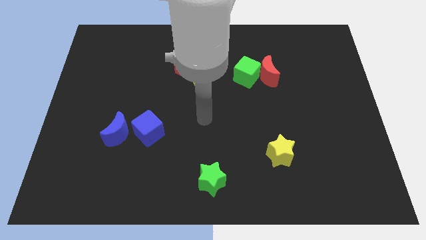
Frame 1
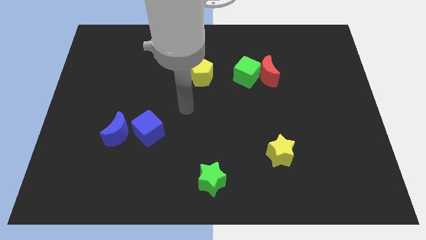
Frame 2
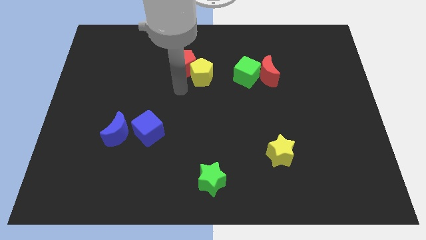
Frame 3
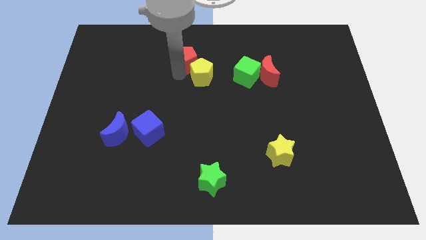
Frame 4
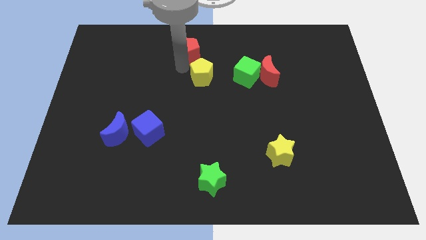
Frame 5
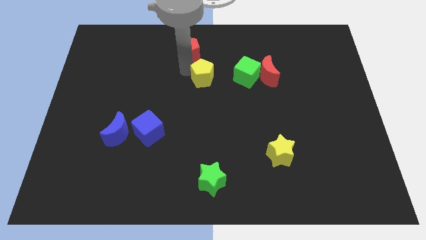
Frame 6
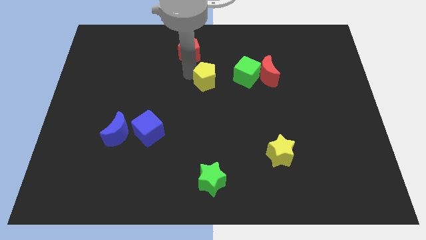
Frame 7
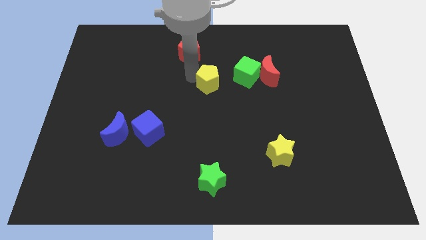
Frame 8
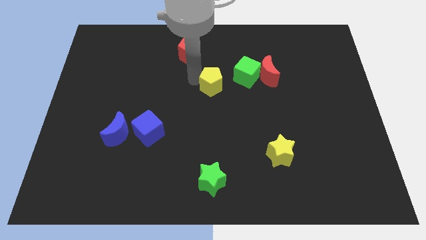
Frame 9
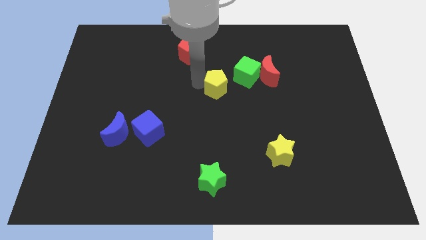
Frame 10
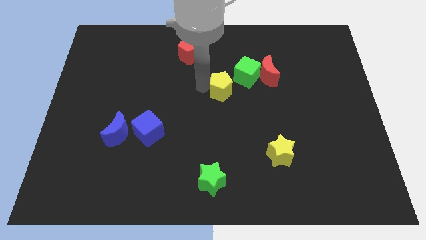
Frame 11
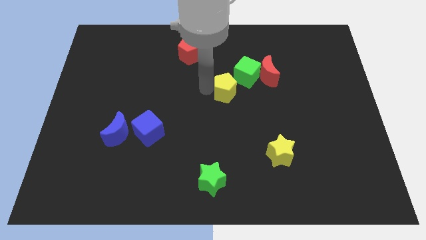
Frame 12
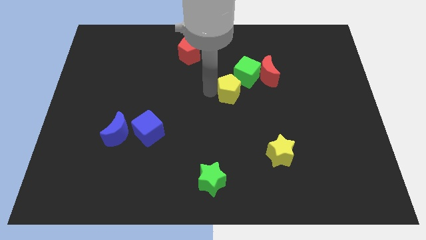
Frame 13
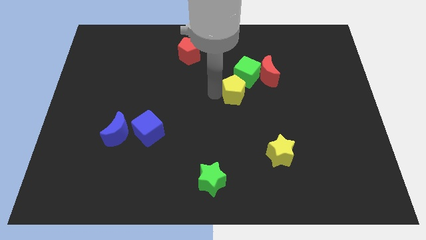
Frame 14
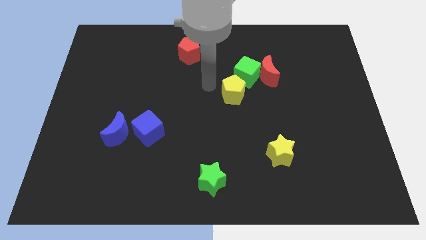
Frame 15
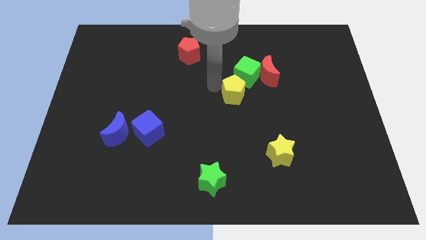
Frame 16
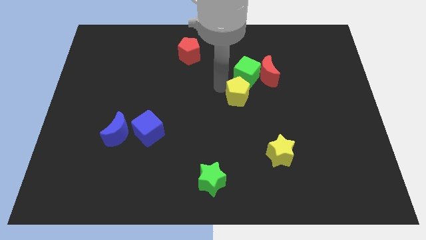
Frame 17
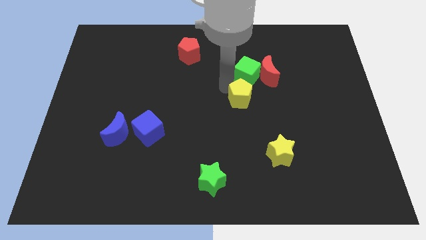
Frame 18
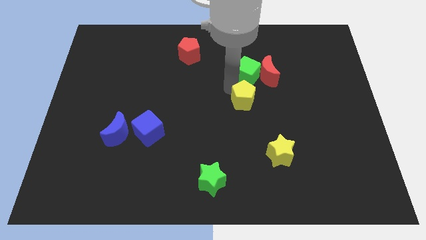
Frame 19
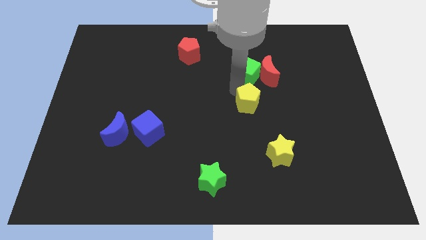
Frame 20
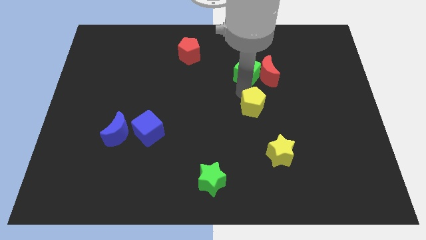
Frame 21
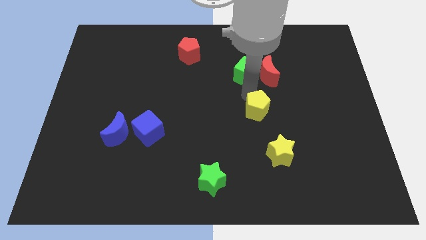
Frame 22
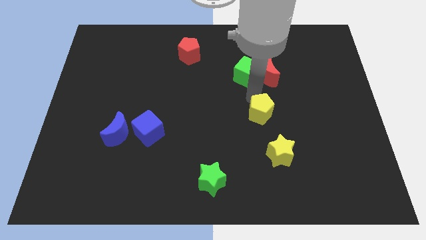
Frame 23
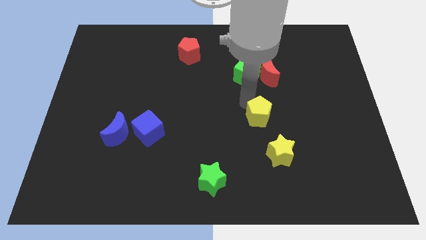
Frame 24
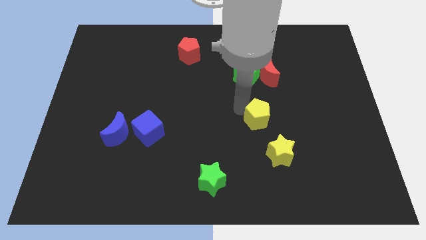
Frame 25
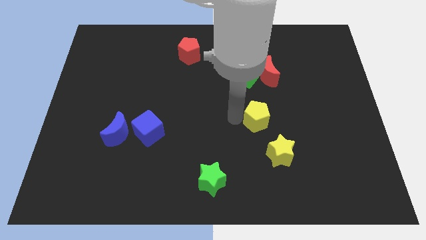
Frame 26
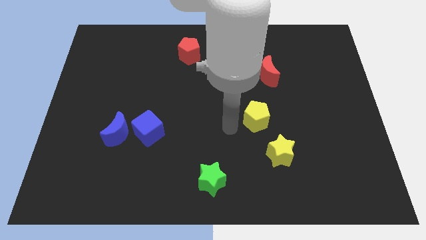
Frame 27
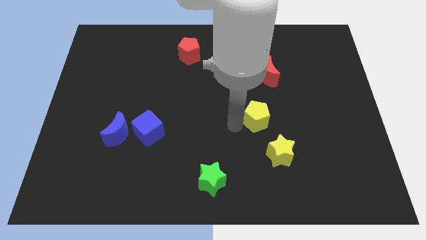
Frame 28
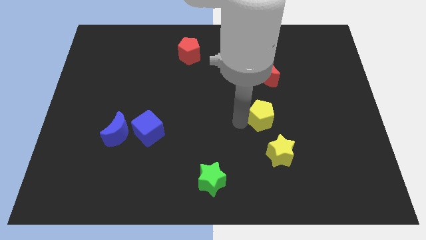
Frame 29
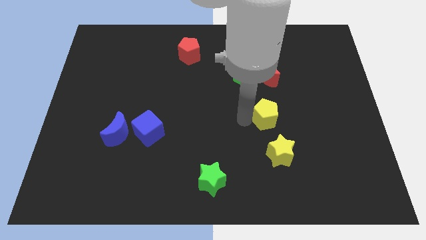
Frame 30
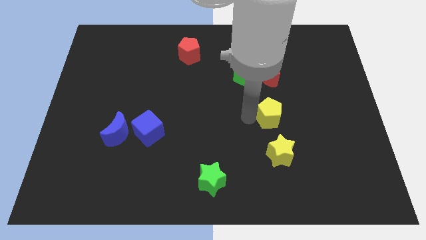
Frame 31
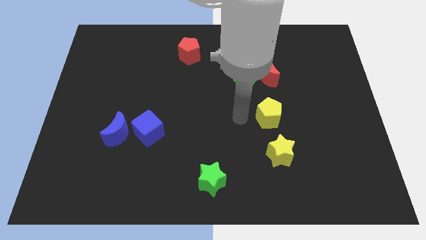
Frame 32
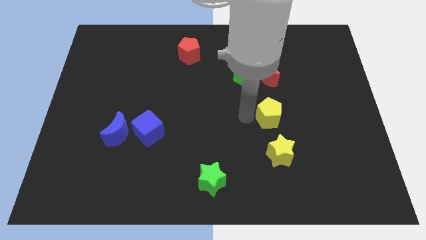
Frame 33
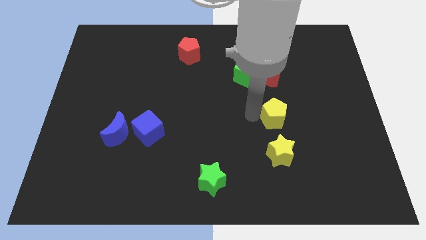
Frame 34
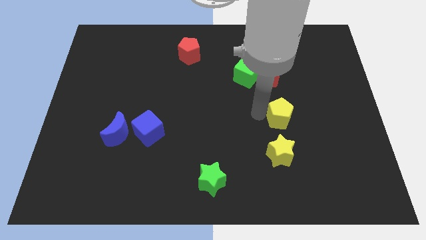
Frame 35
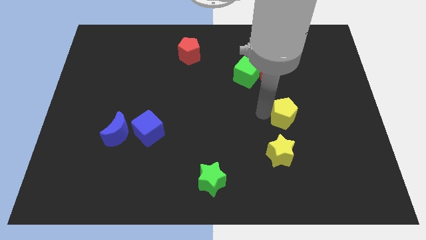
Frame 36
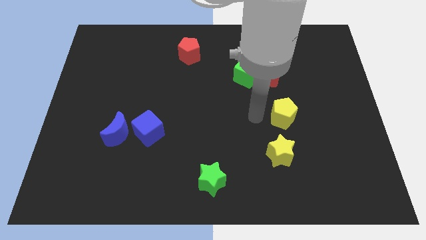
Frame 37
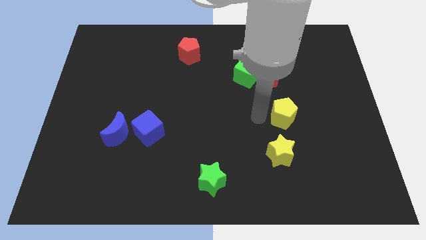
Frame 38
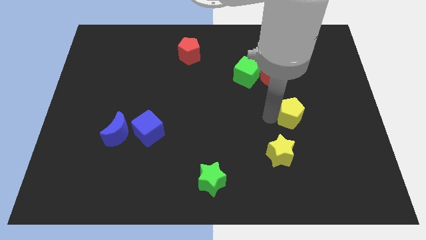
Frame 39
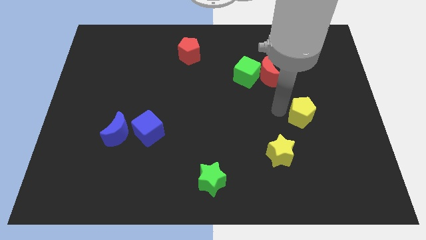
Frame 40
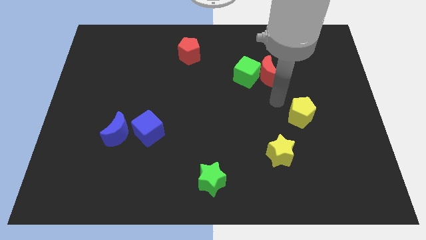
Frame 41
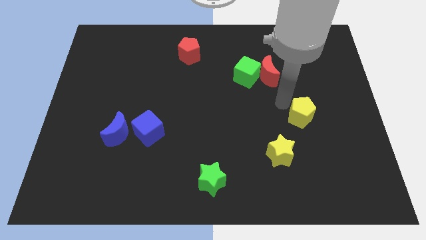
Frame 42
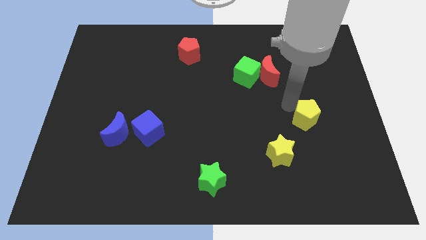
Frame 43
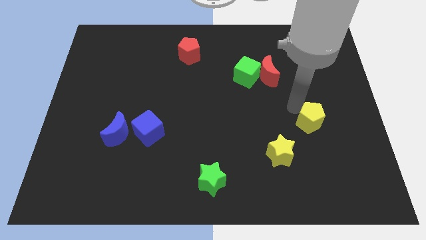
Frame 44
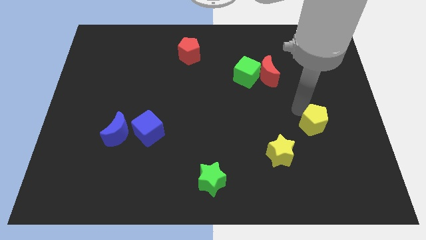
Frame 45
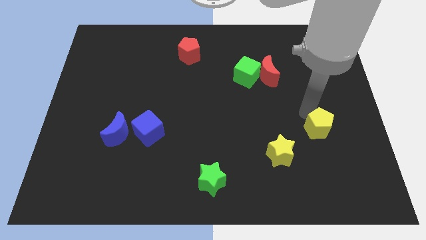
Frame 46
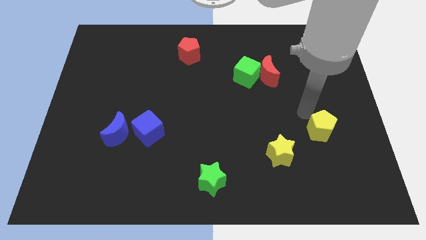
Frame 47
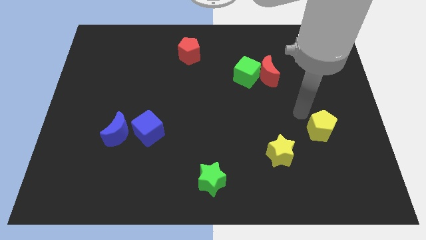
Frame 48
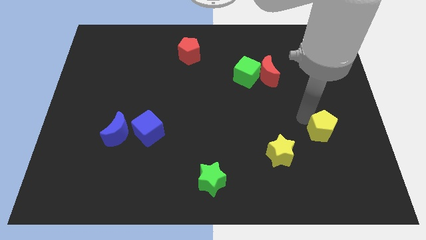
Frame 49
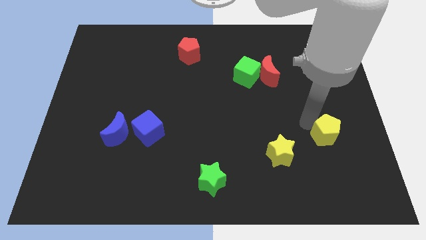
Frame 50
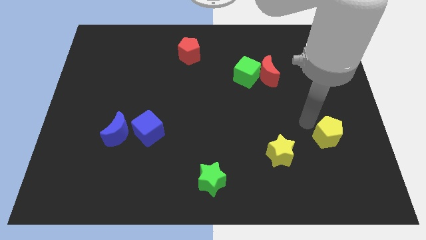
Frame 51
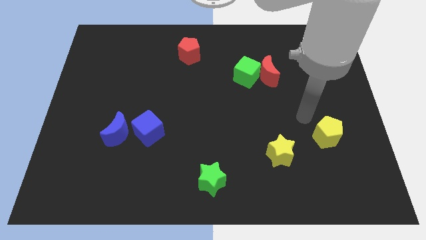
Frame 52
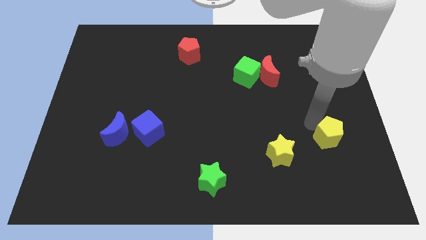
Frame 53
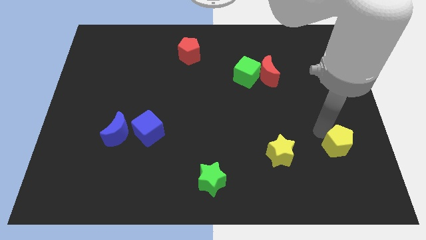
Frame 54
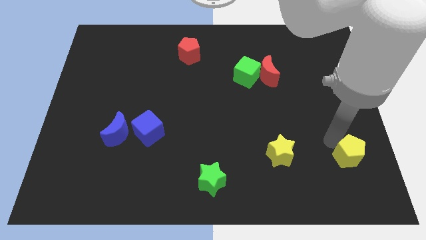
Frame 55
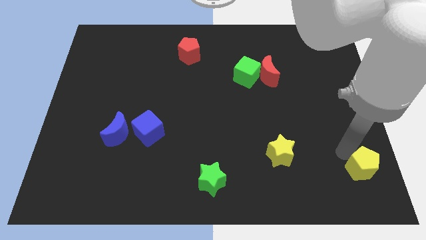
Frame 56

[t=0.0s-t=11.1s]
push the yellow pentagon to the bottom right

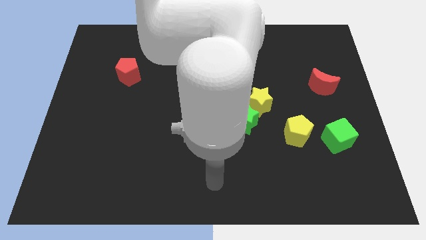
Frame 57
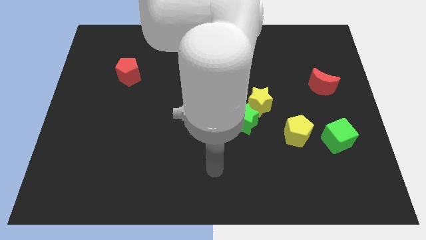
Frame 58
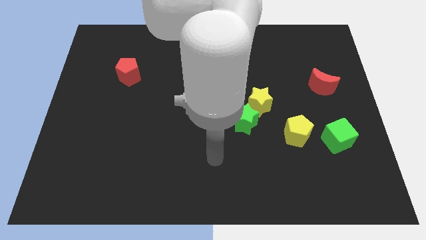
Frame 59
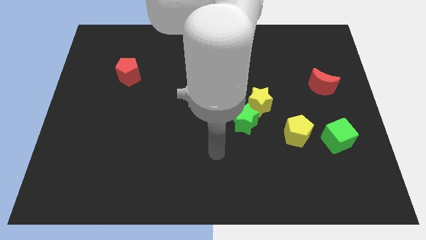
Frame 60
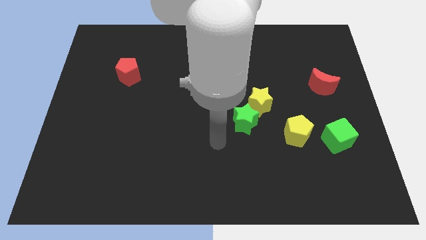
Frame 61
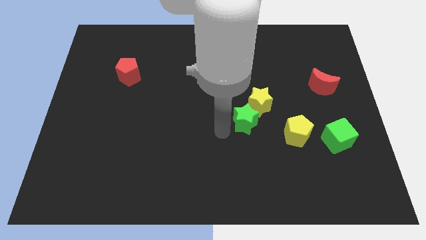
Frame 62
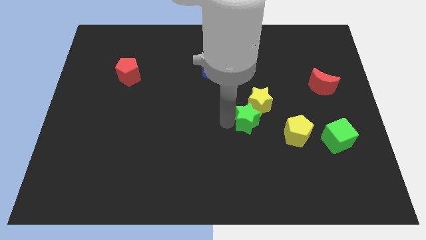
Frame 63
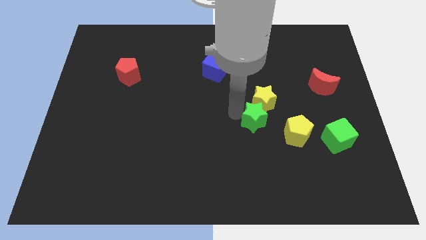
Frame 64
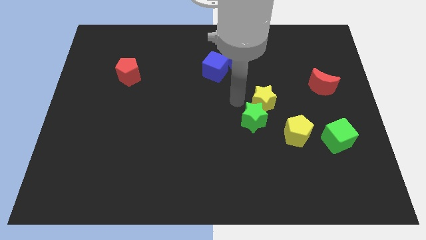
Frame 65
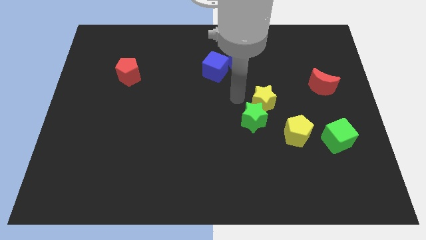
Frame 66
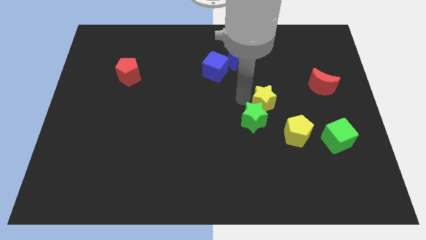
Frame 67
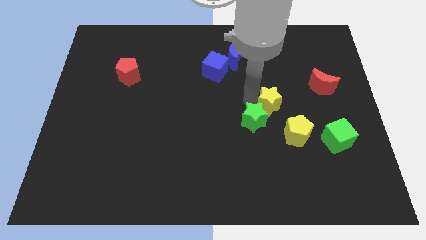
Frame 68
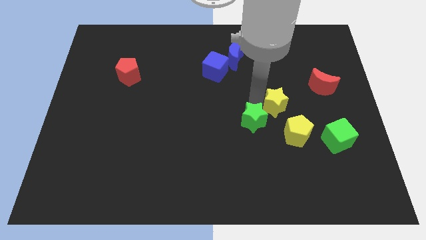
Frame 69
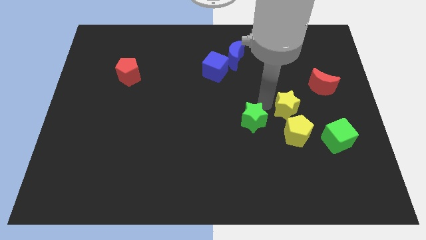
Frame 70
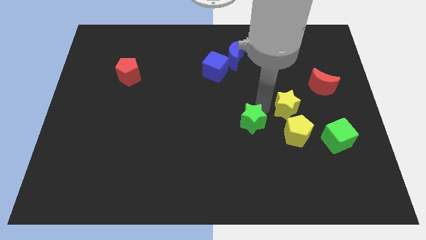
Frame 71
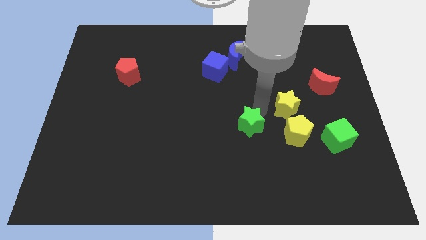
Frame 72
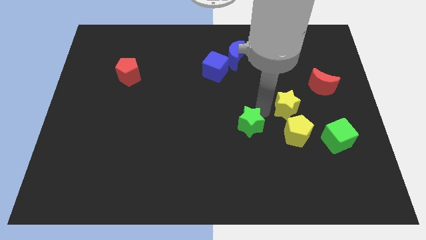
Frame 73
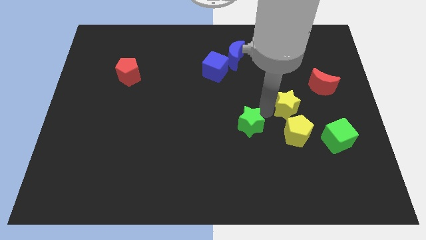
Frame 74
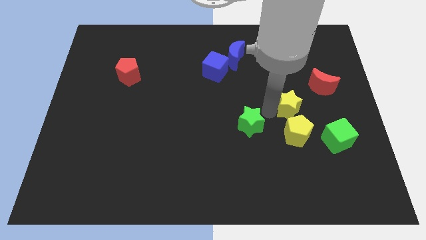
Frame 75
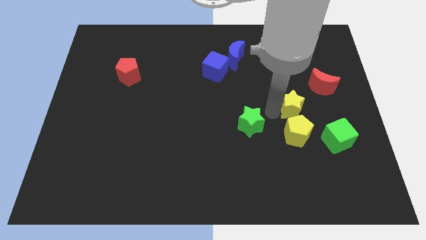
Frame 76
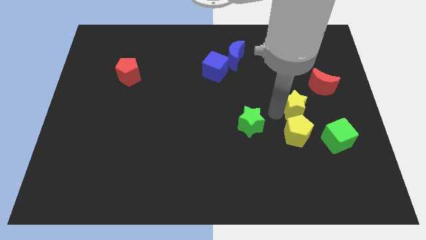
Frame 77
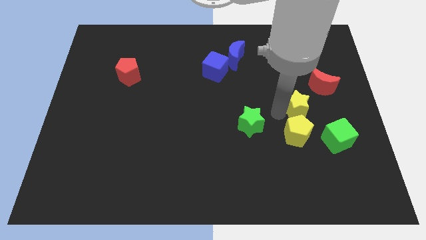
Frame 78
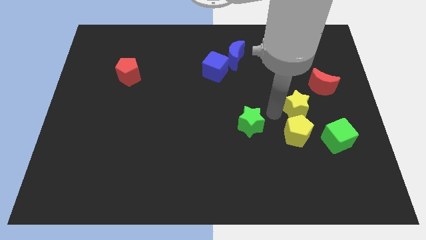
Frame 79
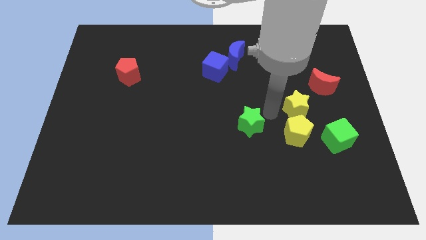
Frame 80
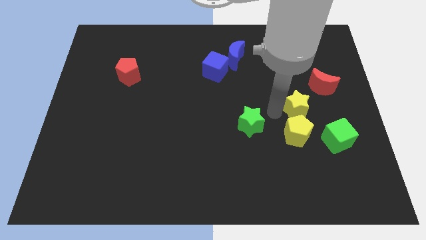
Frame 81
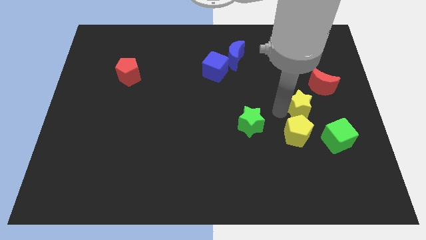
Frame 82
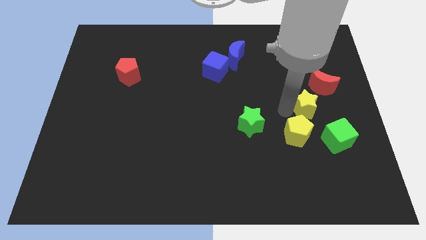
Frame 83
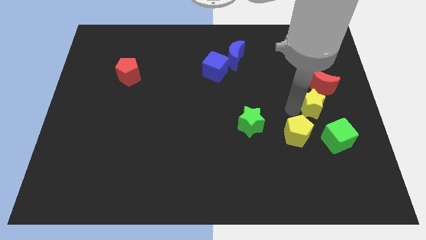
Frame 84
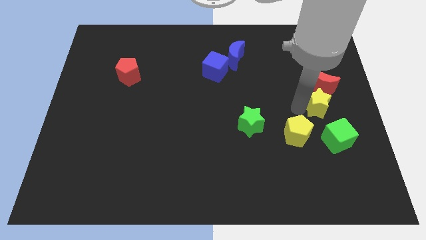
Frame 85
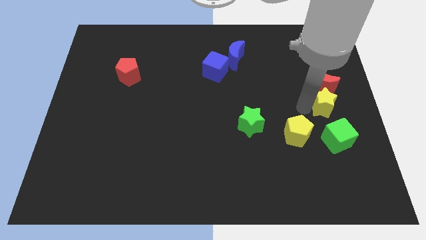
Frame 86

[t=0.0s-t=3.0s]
move the yellow star to the center right
